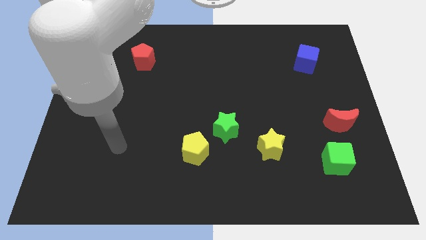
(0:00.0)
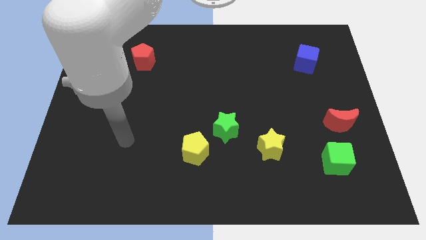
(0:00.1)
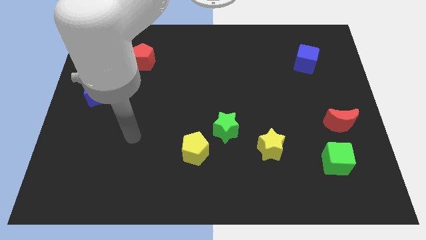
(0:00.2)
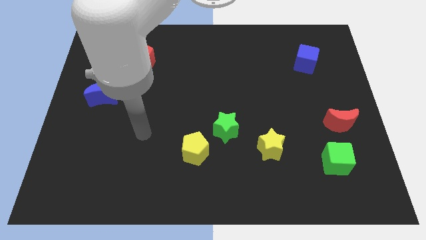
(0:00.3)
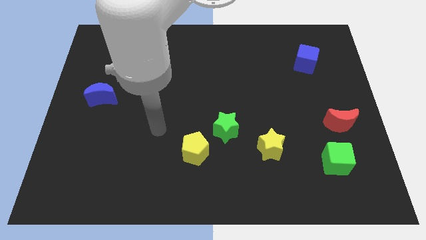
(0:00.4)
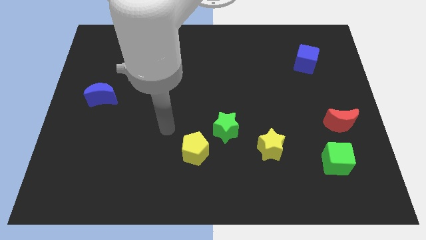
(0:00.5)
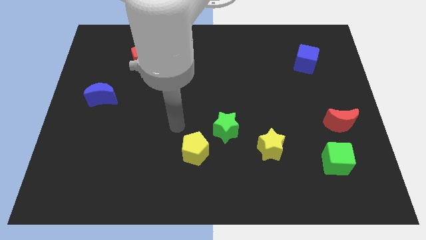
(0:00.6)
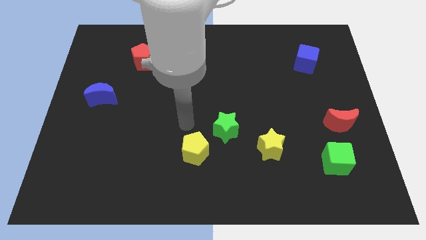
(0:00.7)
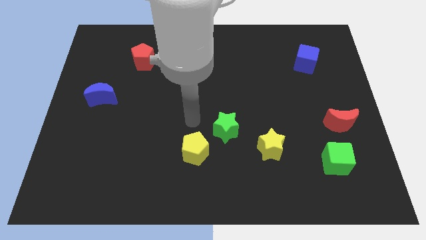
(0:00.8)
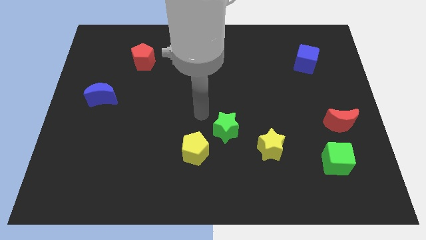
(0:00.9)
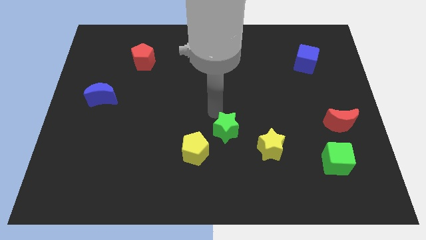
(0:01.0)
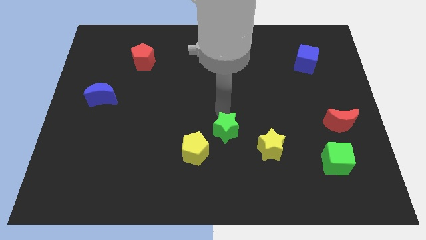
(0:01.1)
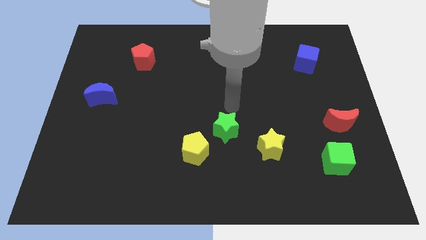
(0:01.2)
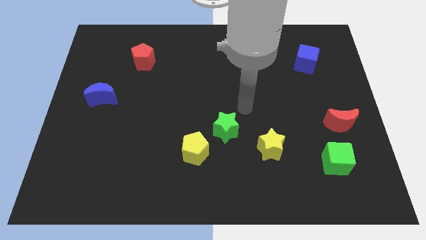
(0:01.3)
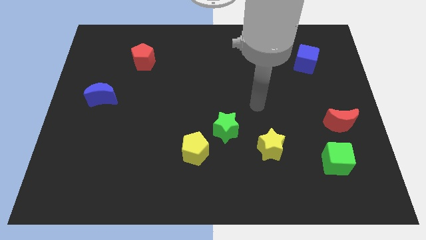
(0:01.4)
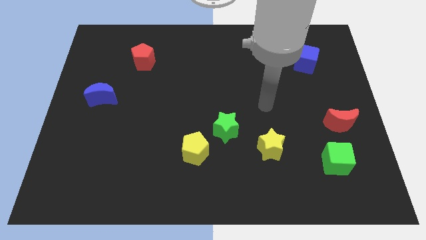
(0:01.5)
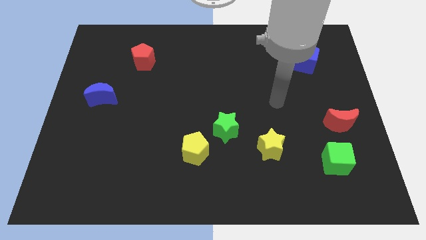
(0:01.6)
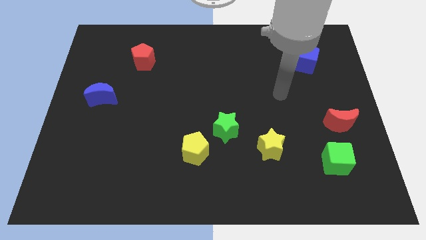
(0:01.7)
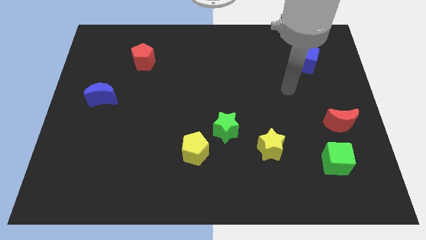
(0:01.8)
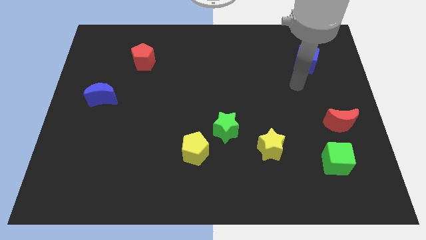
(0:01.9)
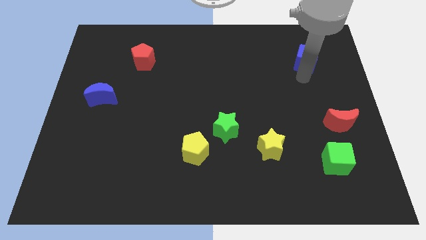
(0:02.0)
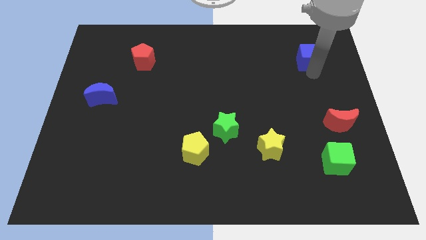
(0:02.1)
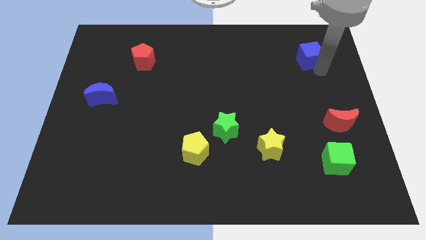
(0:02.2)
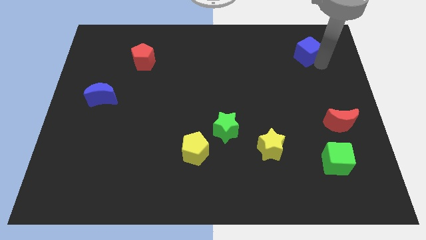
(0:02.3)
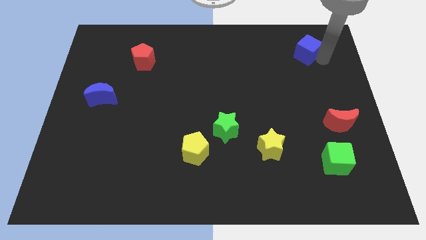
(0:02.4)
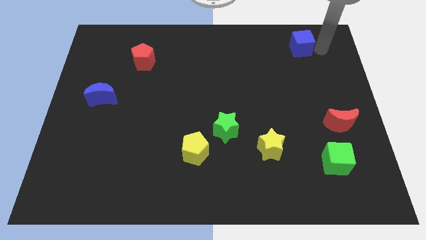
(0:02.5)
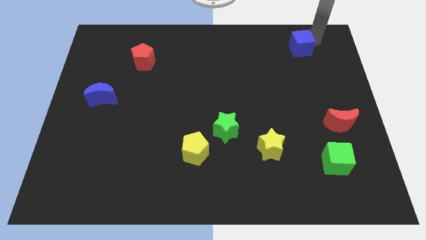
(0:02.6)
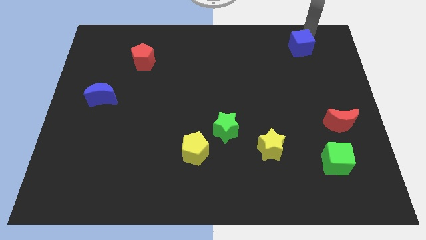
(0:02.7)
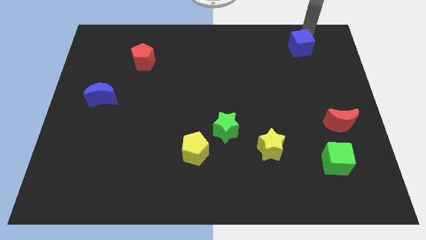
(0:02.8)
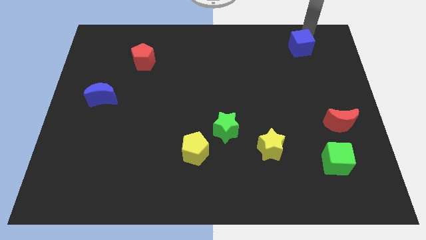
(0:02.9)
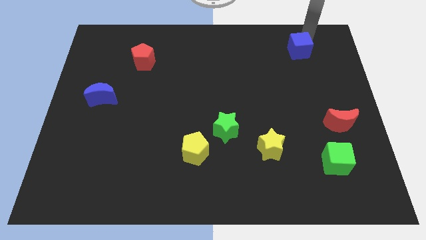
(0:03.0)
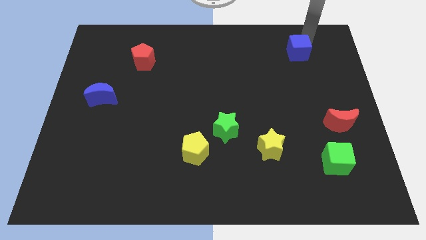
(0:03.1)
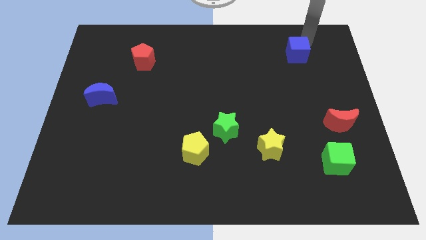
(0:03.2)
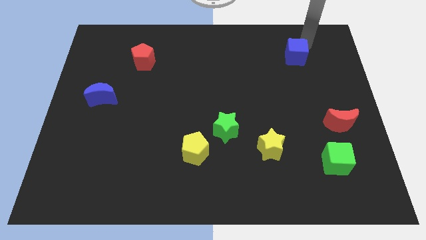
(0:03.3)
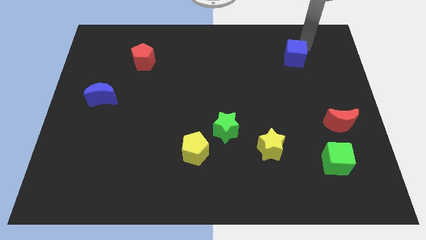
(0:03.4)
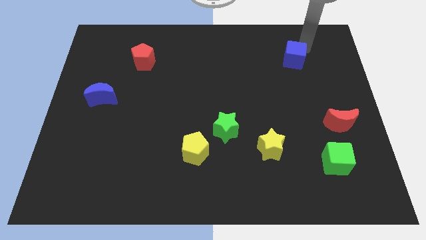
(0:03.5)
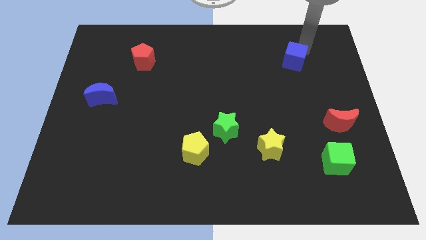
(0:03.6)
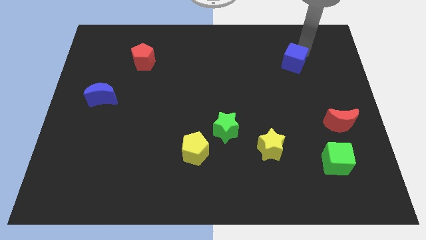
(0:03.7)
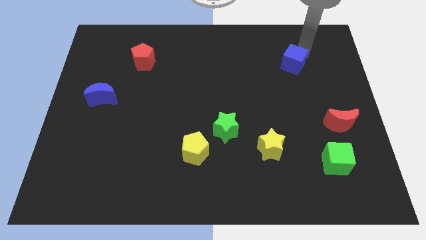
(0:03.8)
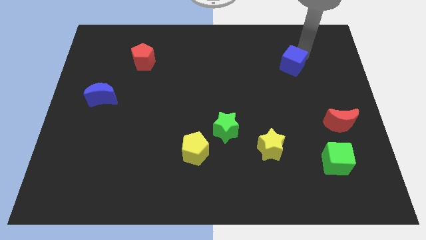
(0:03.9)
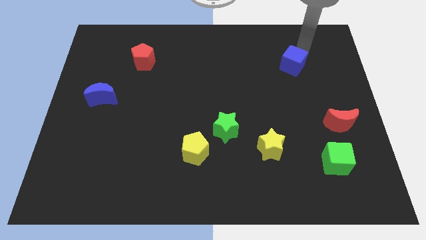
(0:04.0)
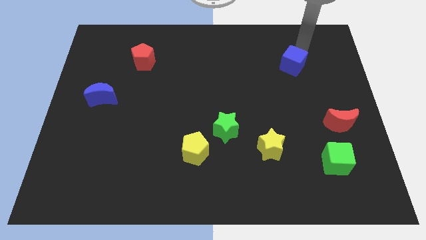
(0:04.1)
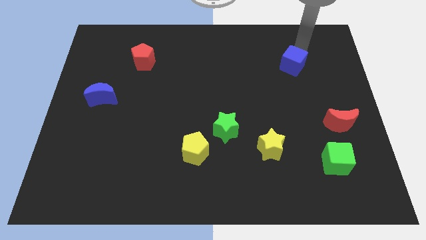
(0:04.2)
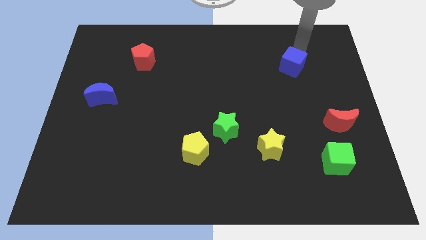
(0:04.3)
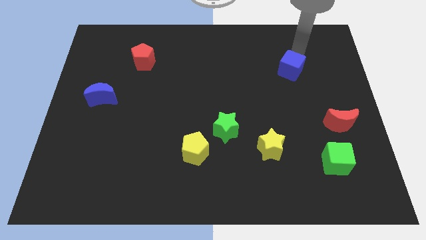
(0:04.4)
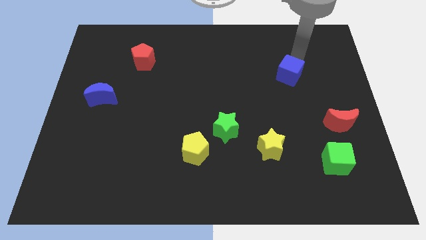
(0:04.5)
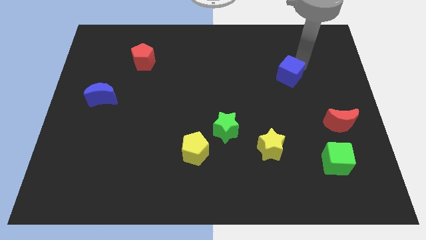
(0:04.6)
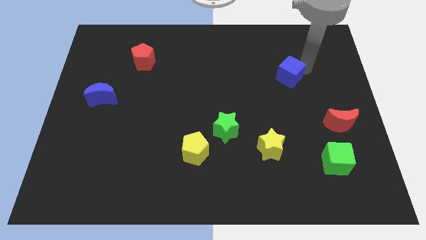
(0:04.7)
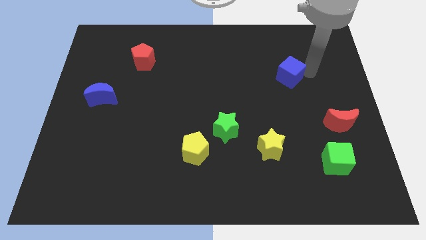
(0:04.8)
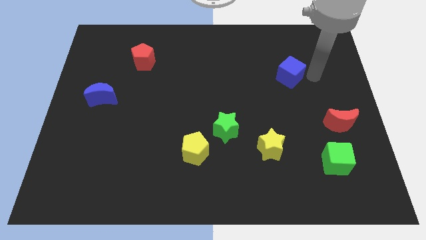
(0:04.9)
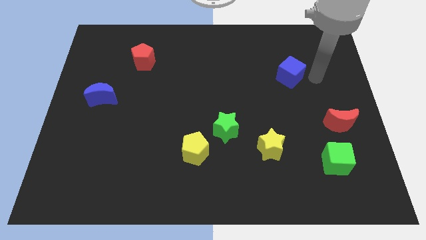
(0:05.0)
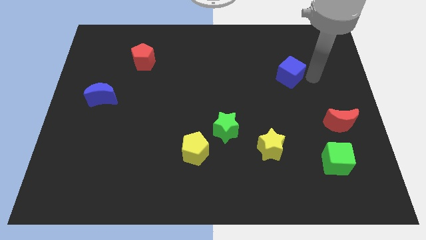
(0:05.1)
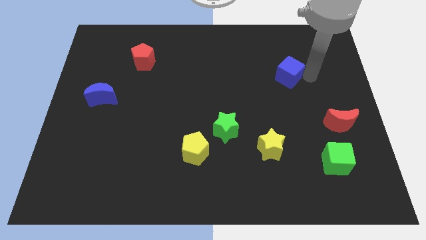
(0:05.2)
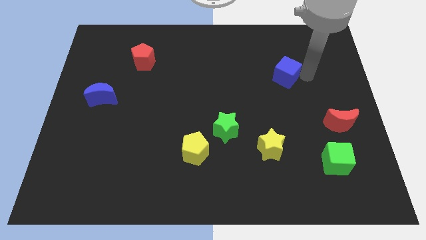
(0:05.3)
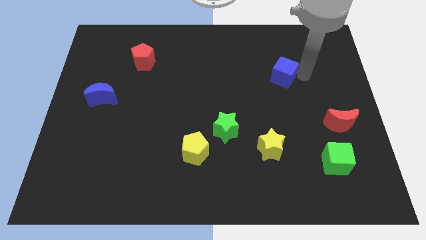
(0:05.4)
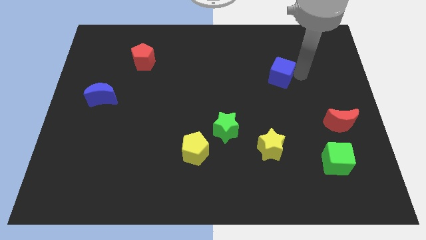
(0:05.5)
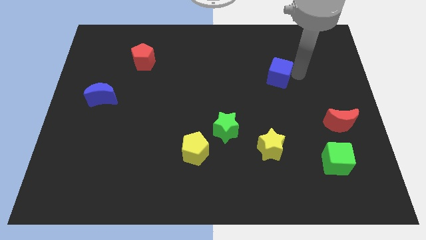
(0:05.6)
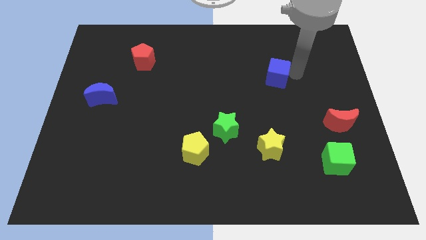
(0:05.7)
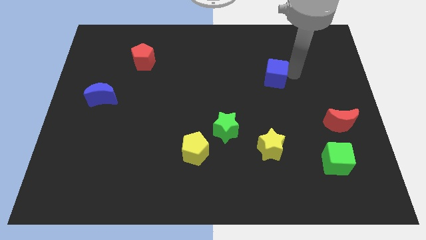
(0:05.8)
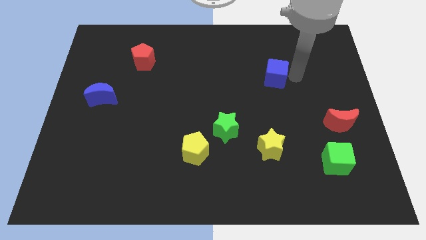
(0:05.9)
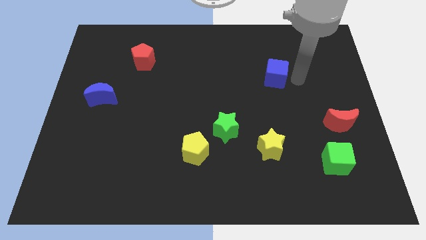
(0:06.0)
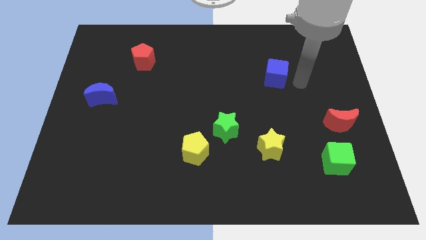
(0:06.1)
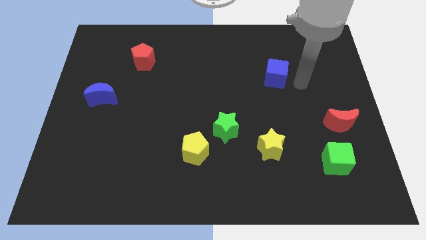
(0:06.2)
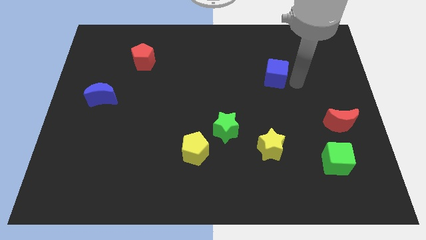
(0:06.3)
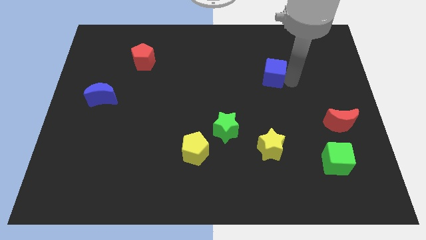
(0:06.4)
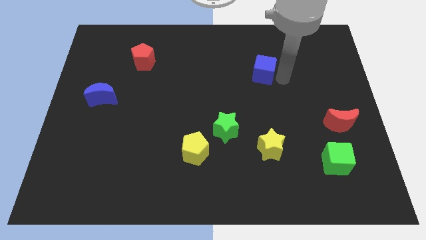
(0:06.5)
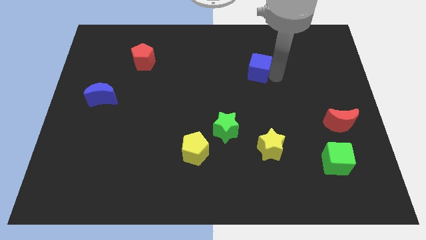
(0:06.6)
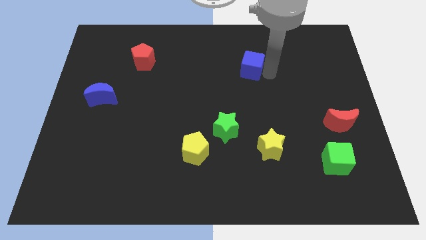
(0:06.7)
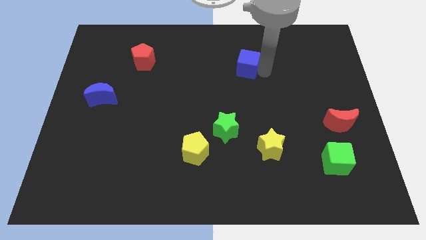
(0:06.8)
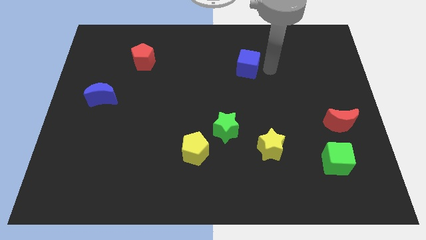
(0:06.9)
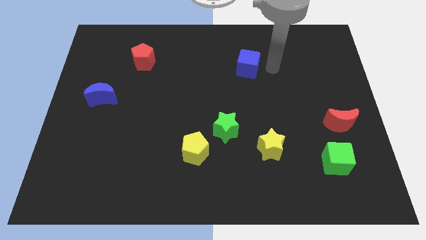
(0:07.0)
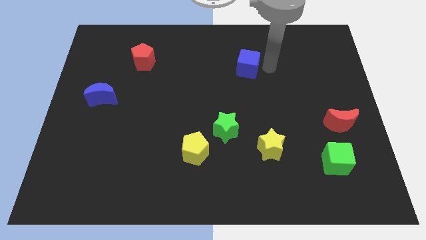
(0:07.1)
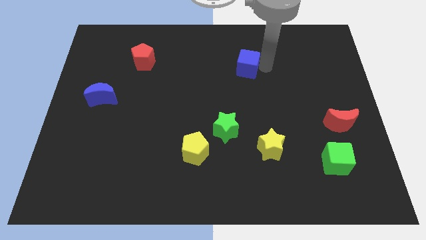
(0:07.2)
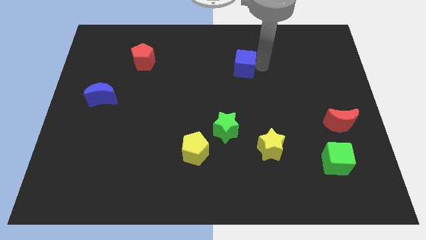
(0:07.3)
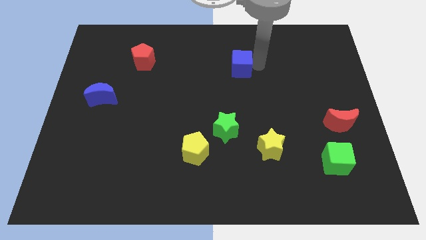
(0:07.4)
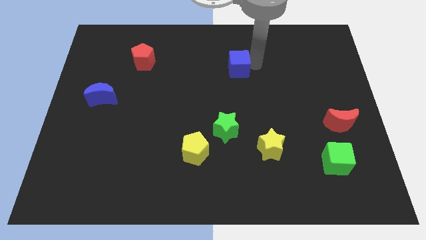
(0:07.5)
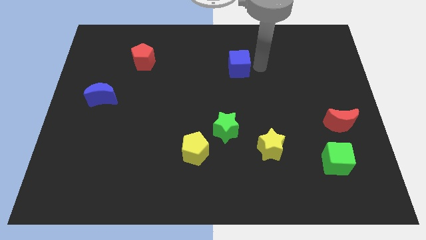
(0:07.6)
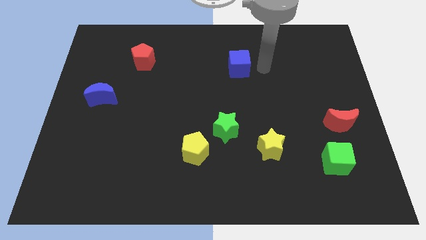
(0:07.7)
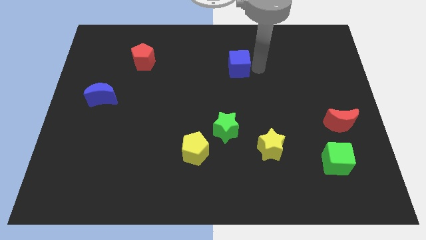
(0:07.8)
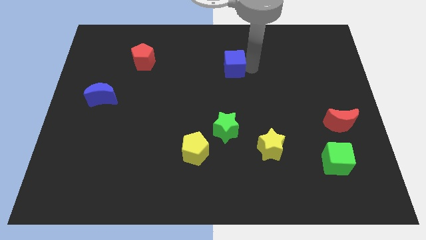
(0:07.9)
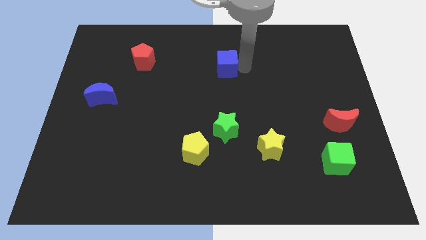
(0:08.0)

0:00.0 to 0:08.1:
push the blue cube left
